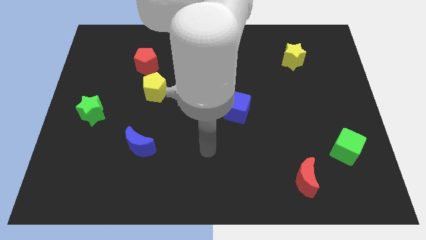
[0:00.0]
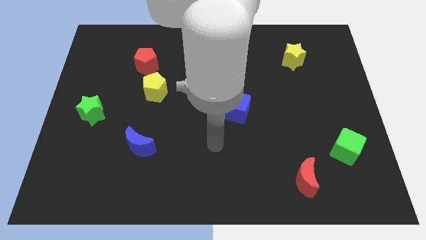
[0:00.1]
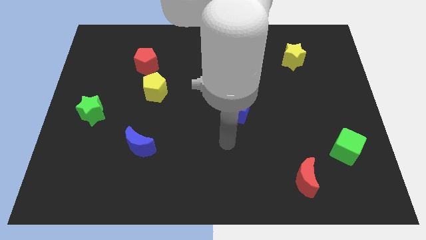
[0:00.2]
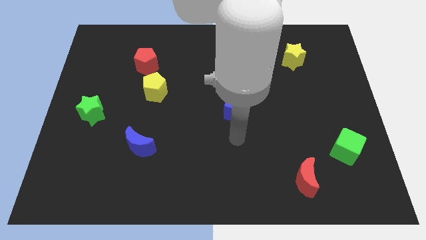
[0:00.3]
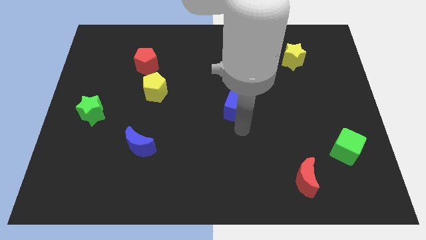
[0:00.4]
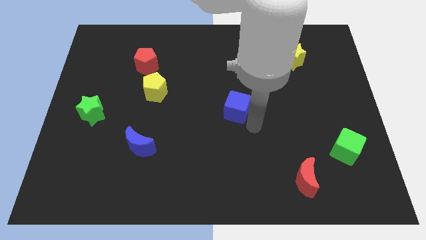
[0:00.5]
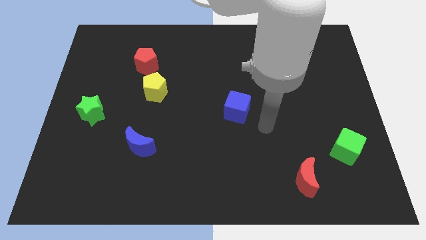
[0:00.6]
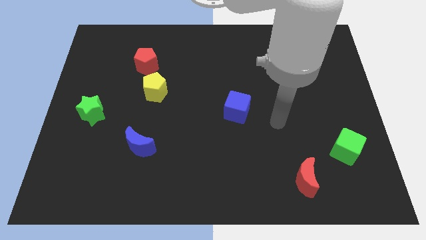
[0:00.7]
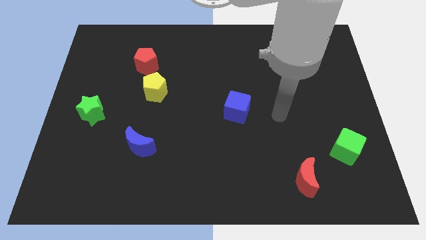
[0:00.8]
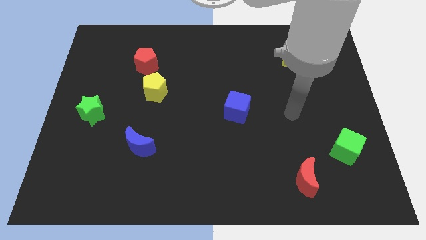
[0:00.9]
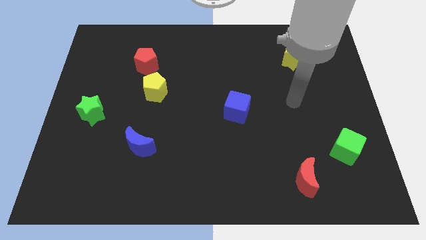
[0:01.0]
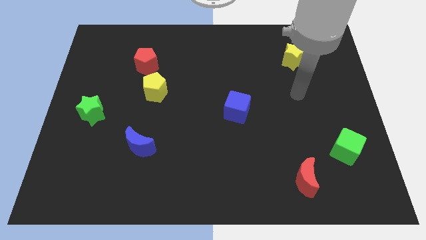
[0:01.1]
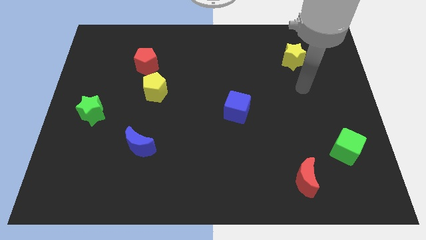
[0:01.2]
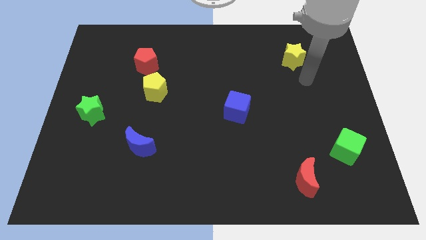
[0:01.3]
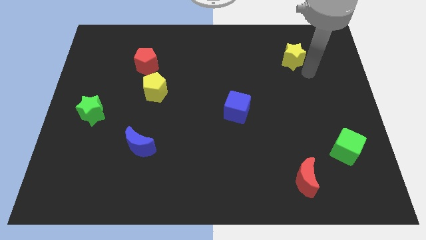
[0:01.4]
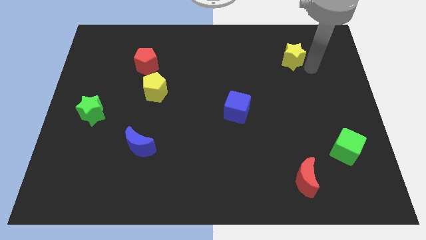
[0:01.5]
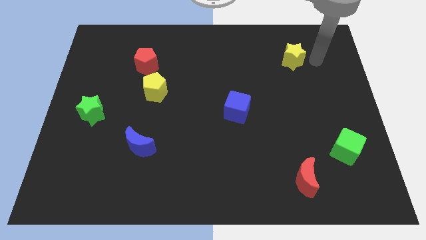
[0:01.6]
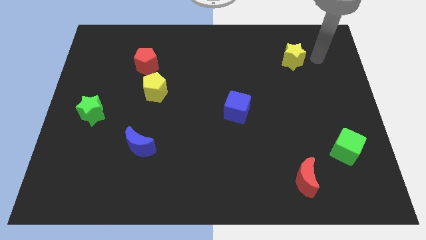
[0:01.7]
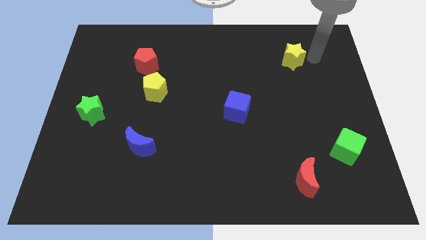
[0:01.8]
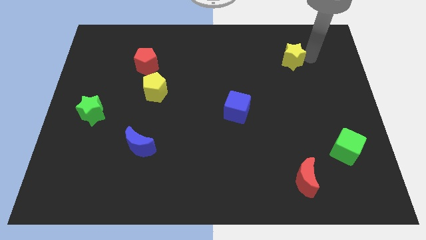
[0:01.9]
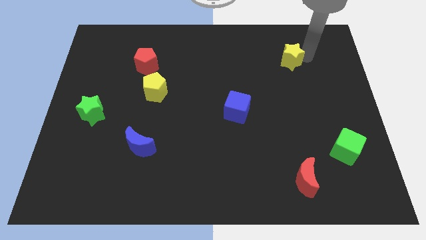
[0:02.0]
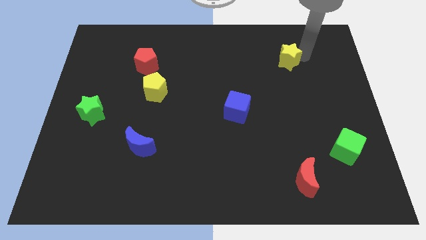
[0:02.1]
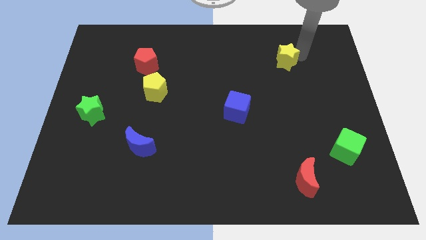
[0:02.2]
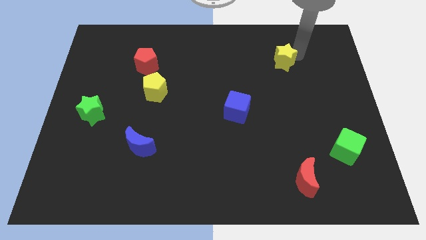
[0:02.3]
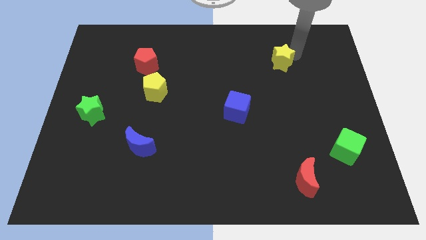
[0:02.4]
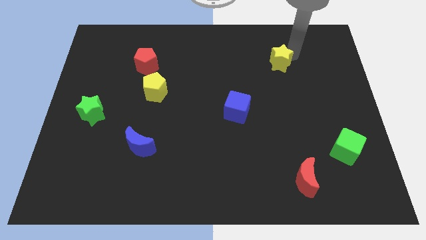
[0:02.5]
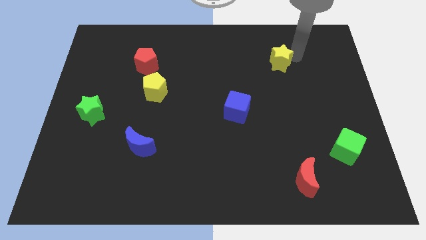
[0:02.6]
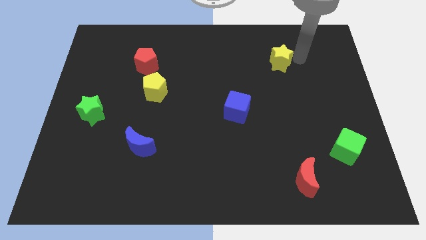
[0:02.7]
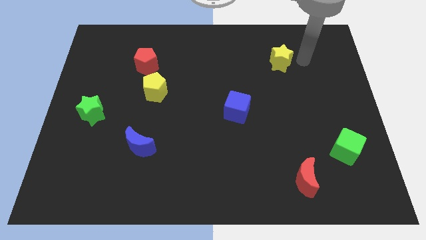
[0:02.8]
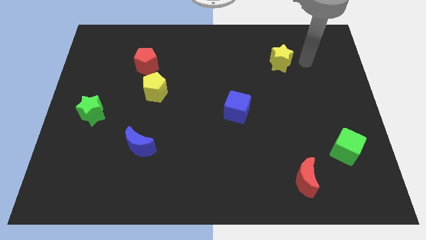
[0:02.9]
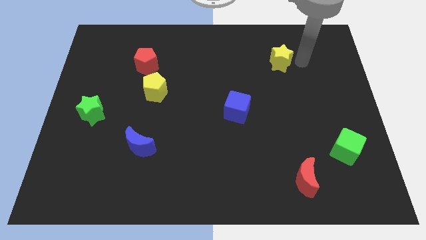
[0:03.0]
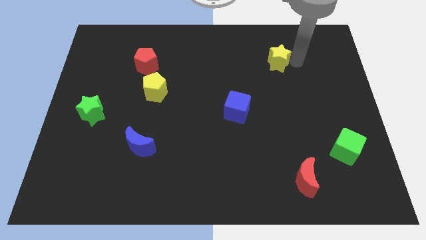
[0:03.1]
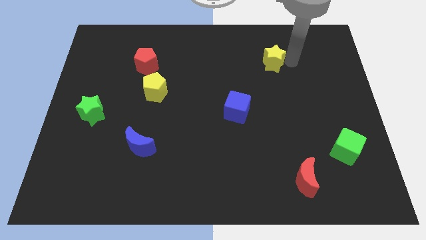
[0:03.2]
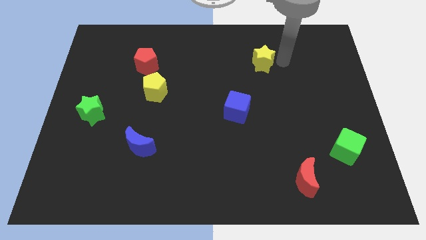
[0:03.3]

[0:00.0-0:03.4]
push the yellow star slightly left

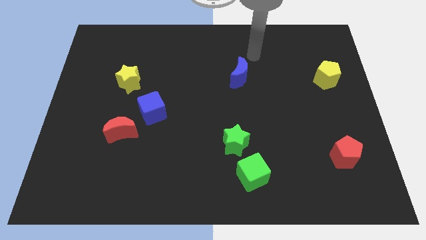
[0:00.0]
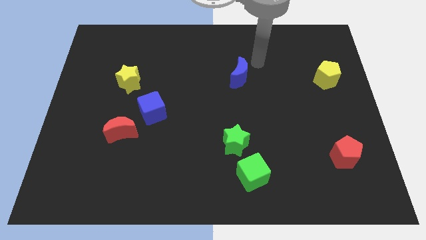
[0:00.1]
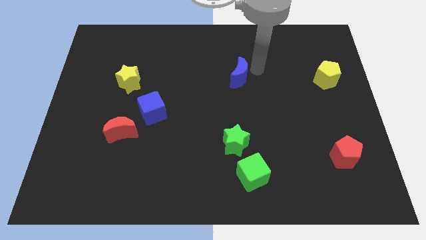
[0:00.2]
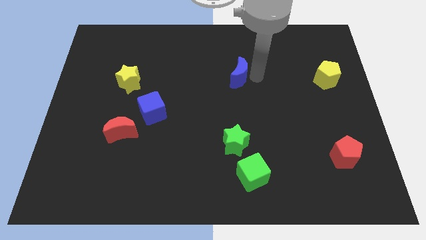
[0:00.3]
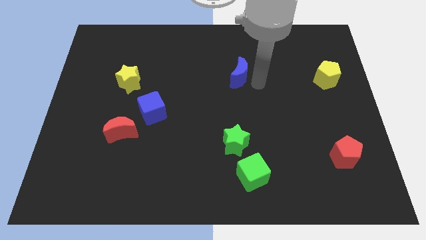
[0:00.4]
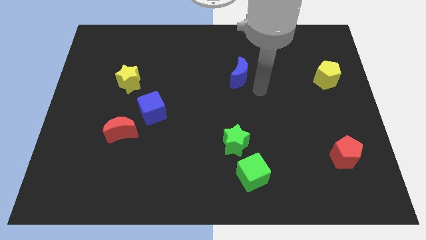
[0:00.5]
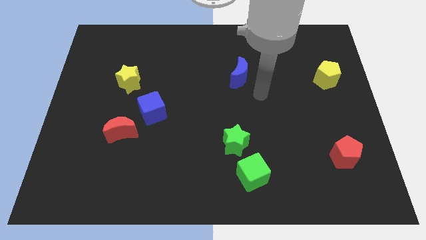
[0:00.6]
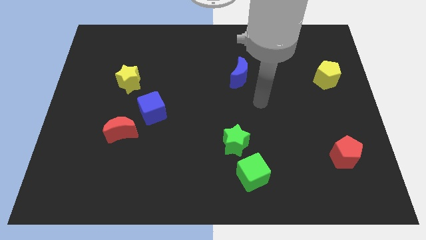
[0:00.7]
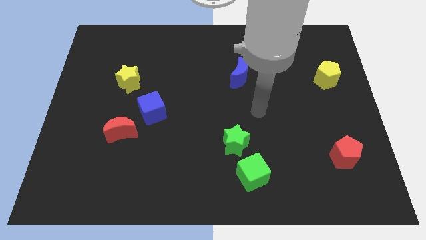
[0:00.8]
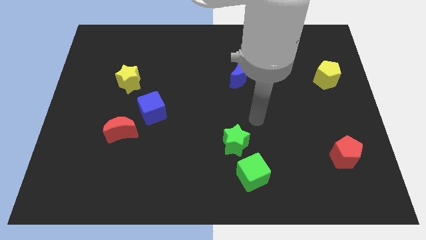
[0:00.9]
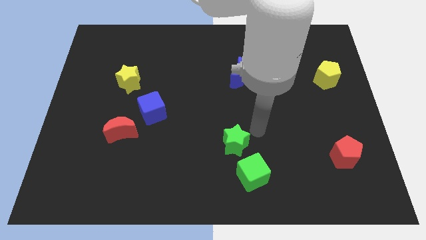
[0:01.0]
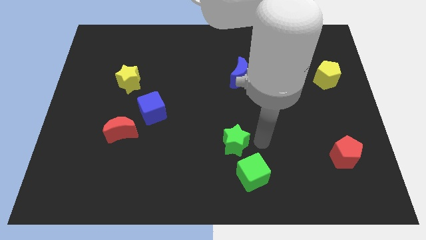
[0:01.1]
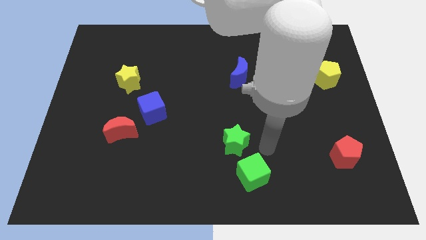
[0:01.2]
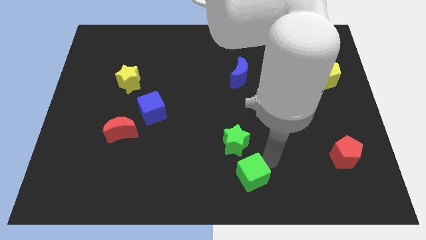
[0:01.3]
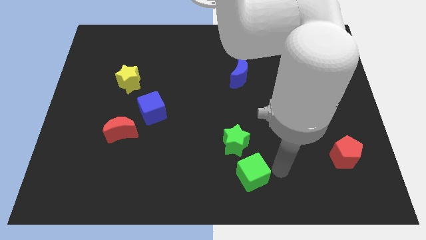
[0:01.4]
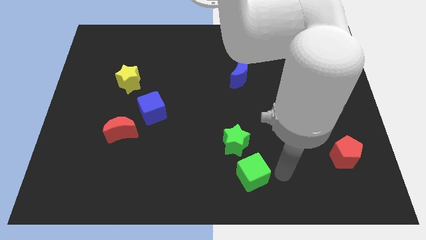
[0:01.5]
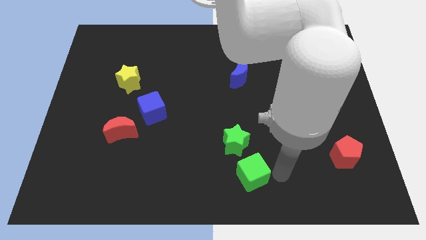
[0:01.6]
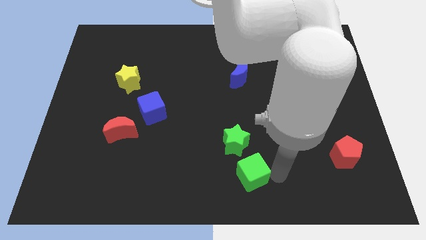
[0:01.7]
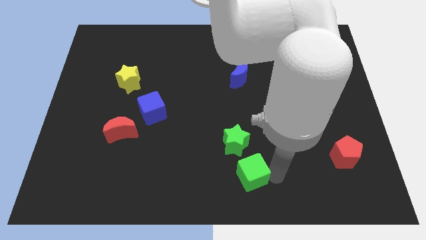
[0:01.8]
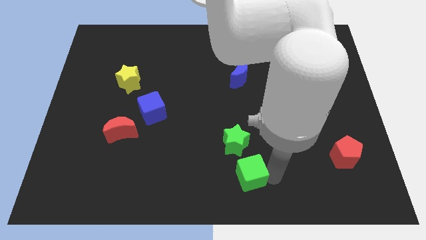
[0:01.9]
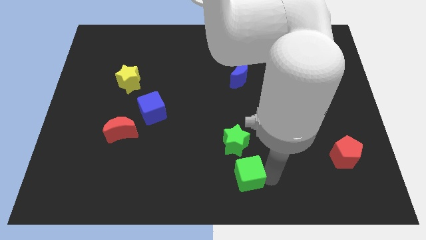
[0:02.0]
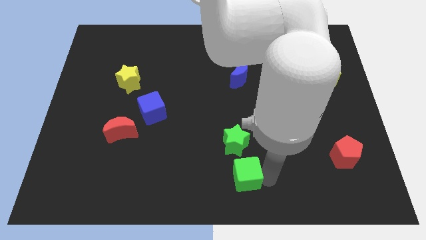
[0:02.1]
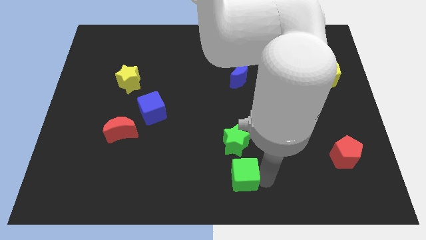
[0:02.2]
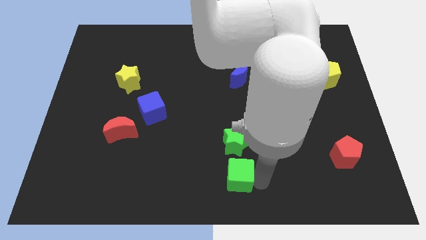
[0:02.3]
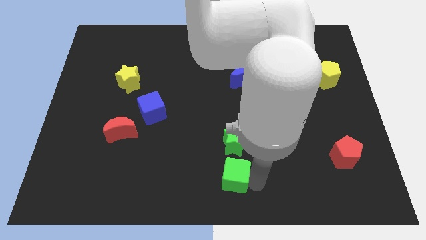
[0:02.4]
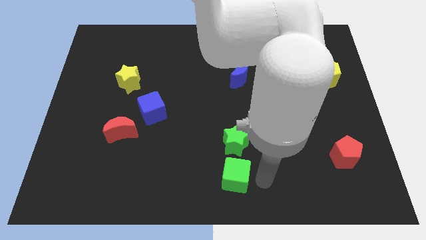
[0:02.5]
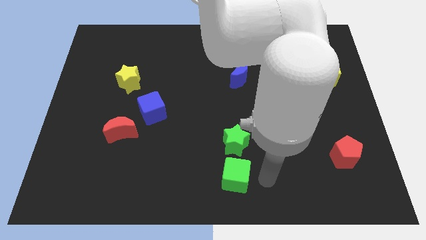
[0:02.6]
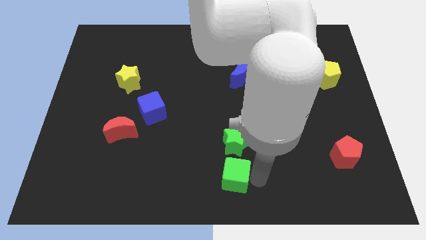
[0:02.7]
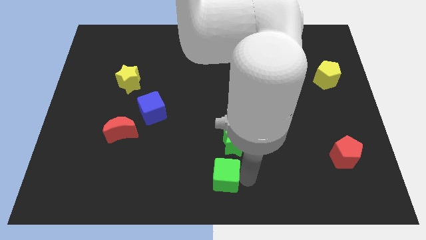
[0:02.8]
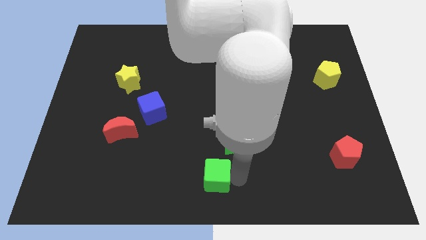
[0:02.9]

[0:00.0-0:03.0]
slide the green cube slightly to the left

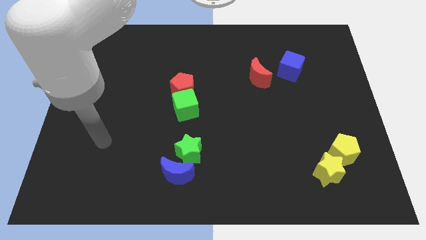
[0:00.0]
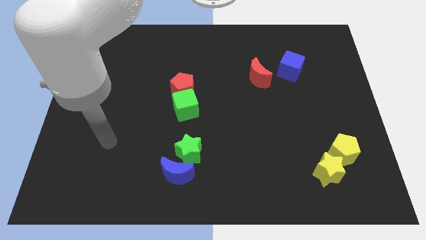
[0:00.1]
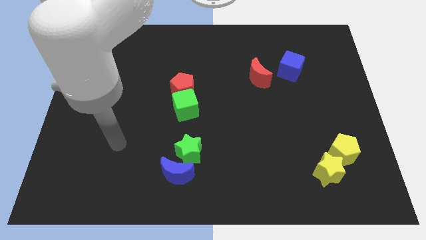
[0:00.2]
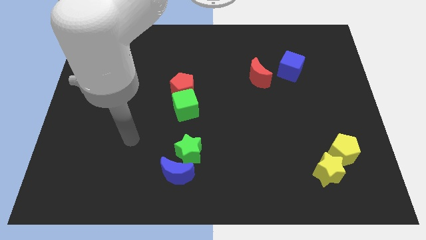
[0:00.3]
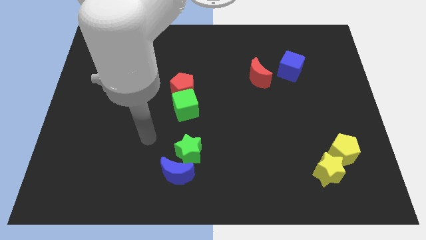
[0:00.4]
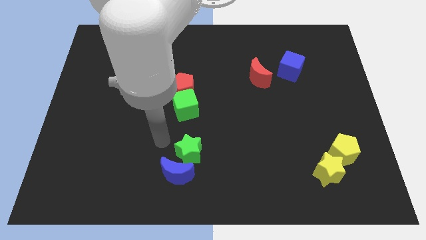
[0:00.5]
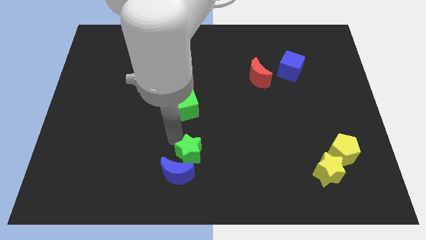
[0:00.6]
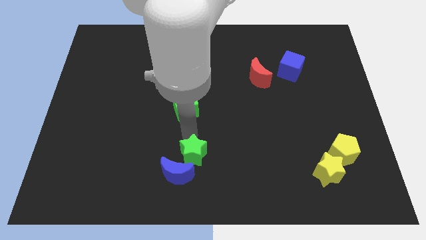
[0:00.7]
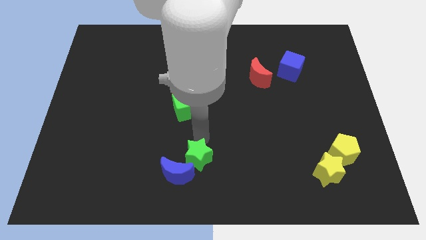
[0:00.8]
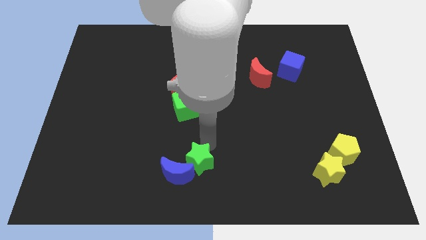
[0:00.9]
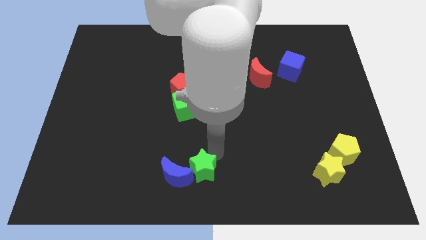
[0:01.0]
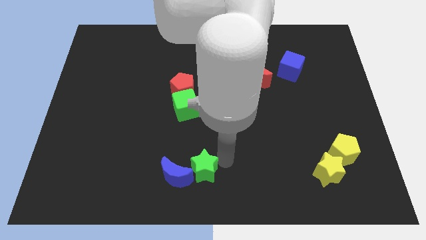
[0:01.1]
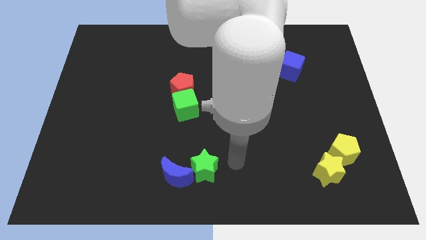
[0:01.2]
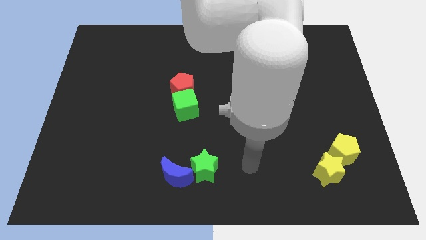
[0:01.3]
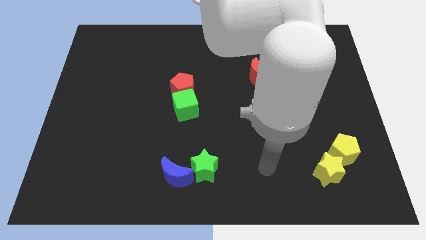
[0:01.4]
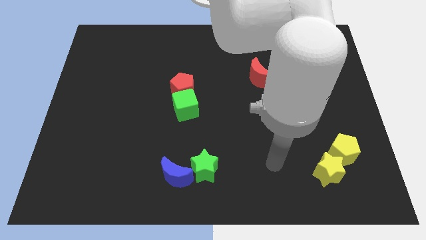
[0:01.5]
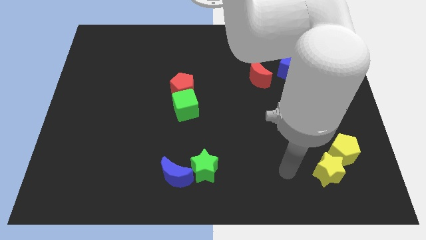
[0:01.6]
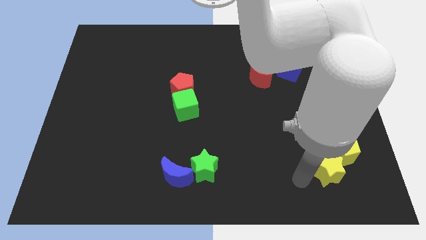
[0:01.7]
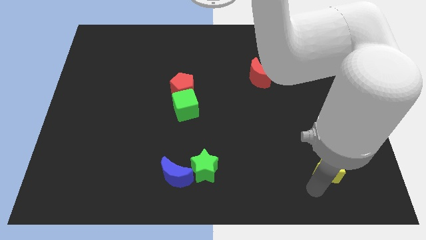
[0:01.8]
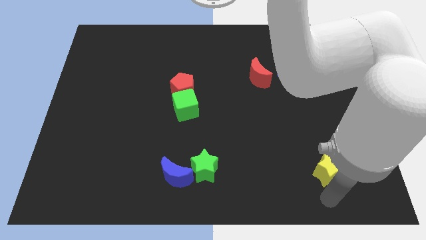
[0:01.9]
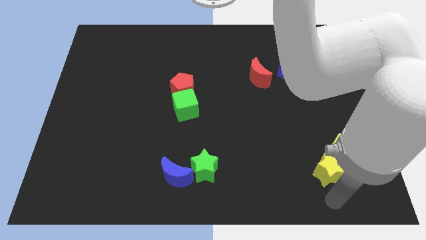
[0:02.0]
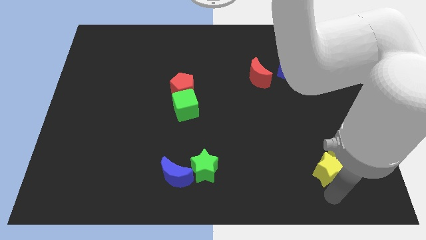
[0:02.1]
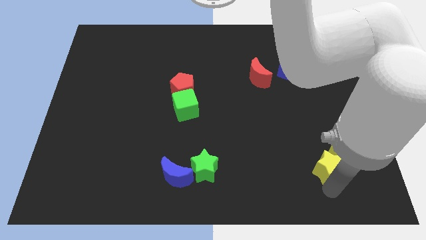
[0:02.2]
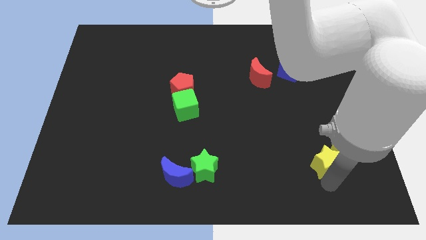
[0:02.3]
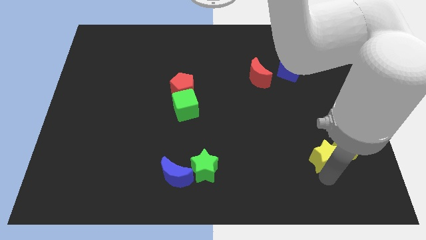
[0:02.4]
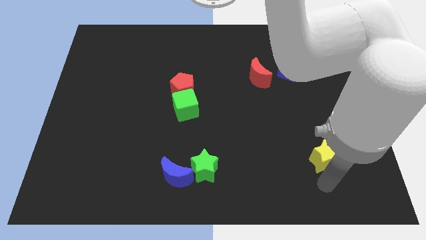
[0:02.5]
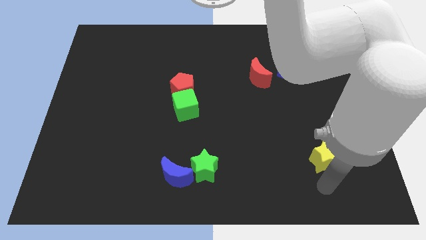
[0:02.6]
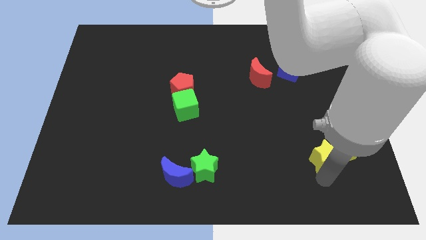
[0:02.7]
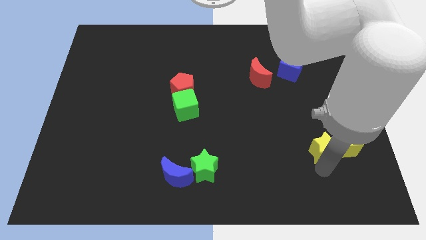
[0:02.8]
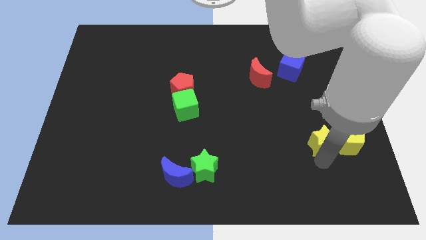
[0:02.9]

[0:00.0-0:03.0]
slide the yellow star up slightly
